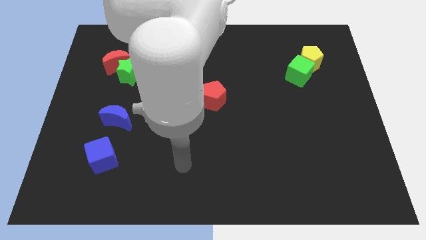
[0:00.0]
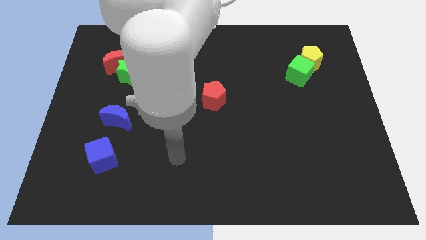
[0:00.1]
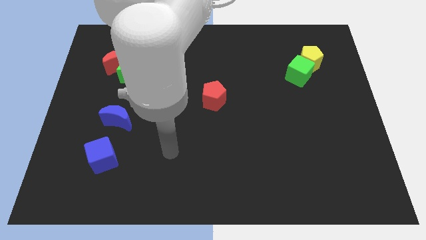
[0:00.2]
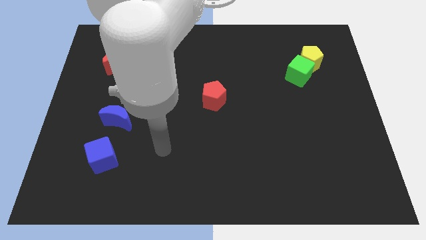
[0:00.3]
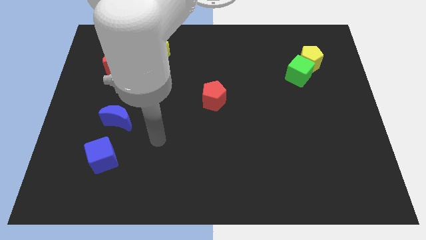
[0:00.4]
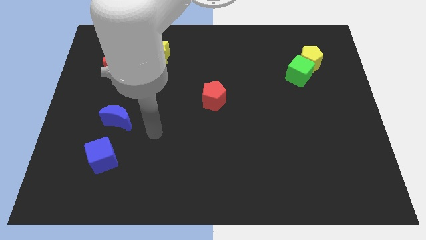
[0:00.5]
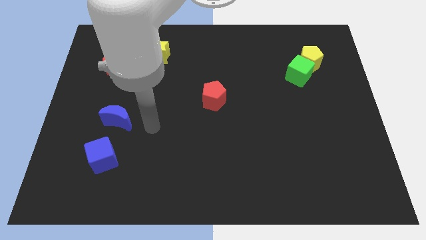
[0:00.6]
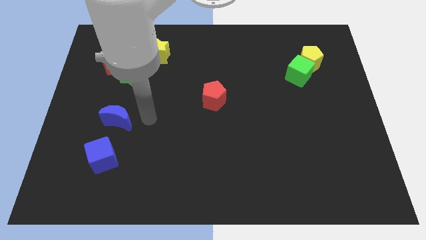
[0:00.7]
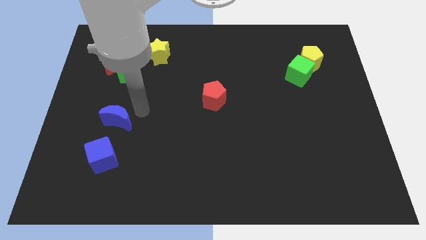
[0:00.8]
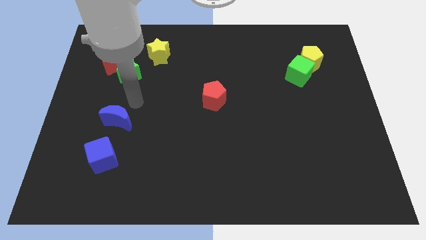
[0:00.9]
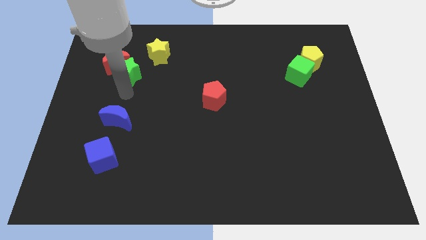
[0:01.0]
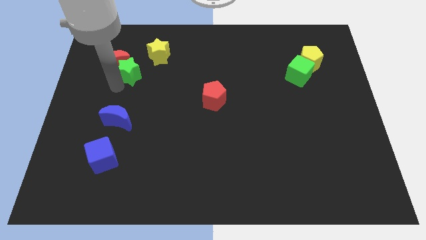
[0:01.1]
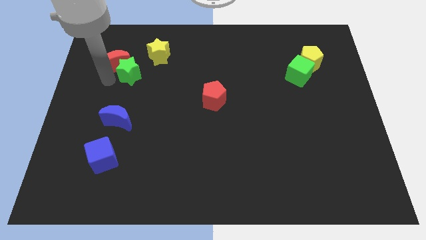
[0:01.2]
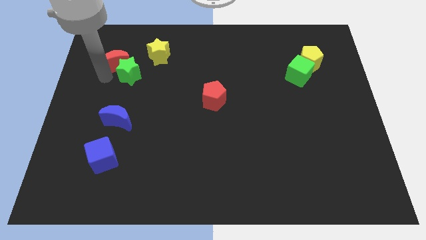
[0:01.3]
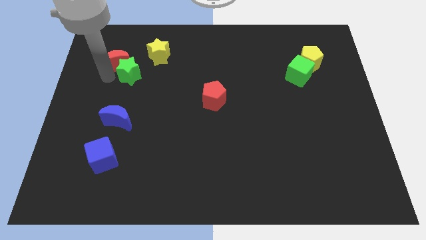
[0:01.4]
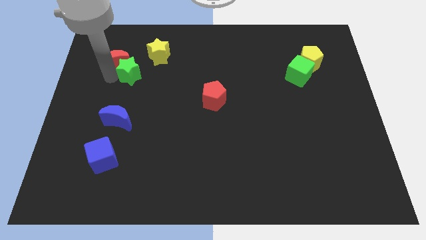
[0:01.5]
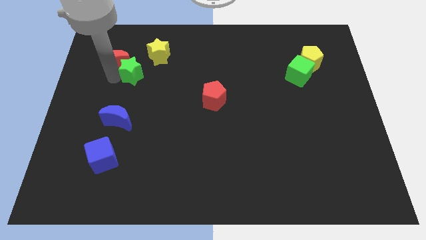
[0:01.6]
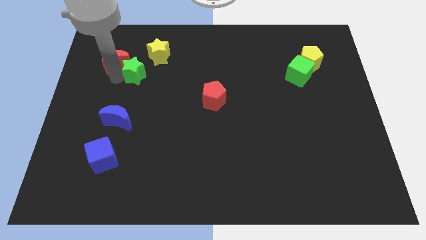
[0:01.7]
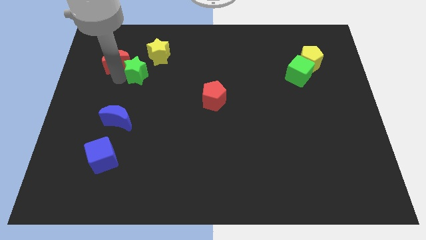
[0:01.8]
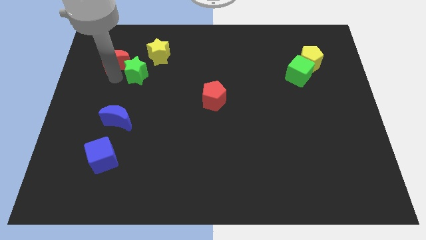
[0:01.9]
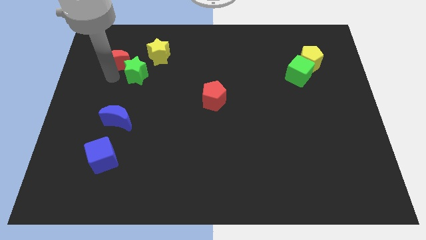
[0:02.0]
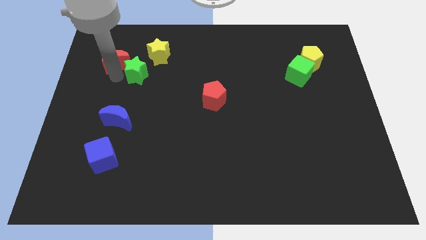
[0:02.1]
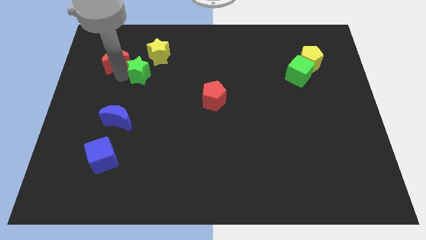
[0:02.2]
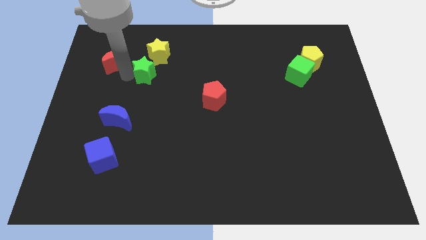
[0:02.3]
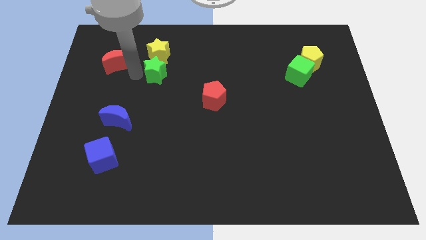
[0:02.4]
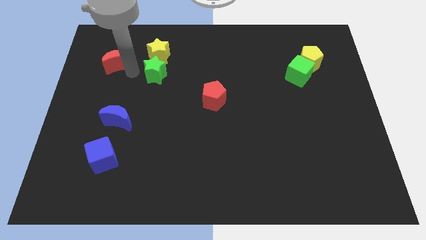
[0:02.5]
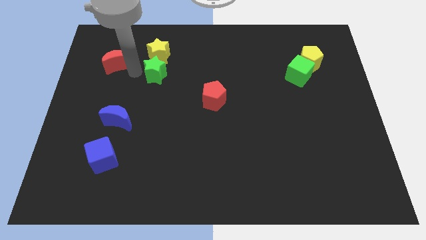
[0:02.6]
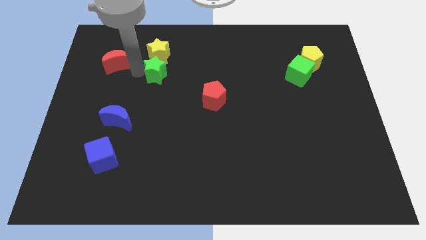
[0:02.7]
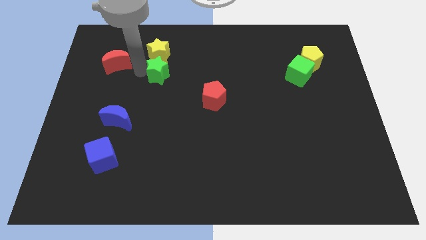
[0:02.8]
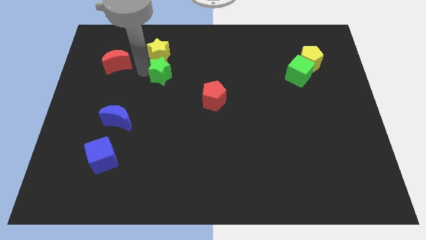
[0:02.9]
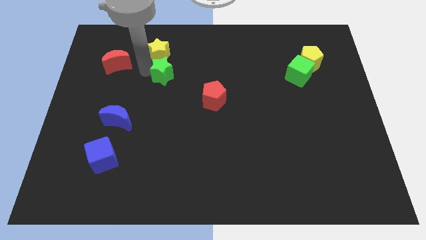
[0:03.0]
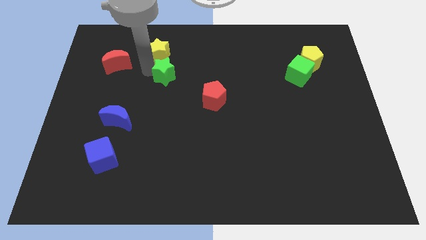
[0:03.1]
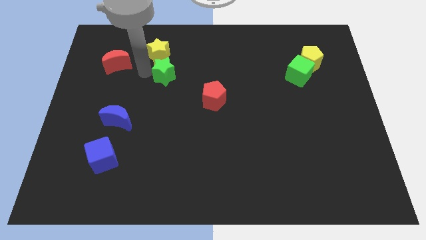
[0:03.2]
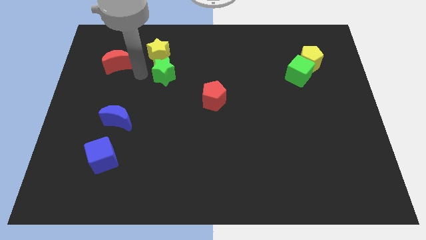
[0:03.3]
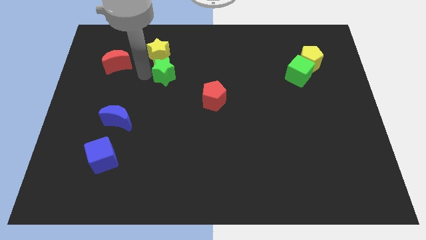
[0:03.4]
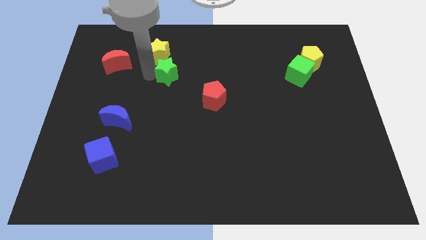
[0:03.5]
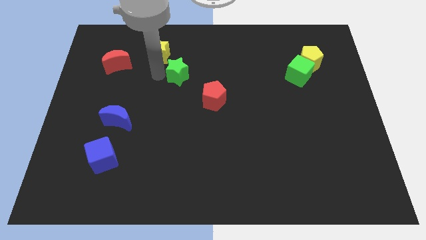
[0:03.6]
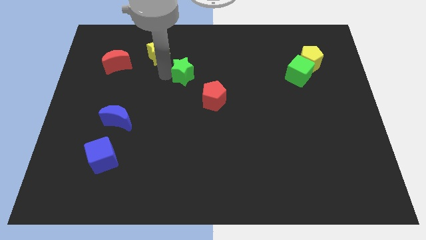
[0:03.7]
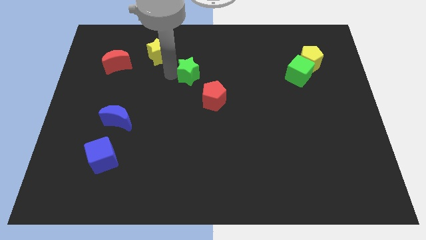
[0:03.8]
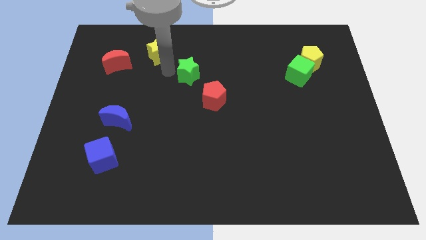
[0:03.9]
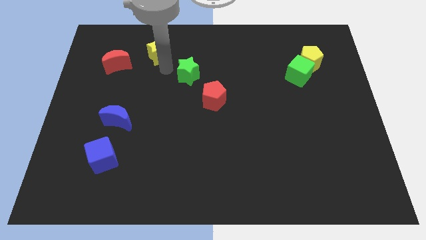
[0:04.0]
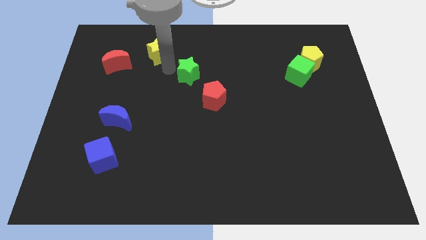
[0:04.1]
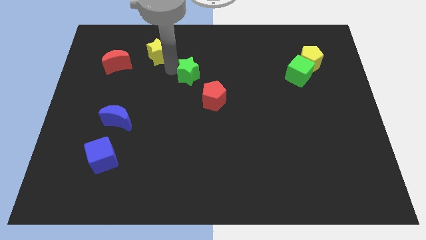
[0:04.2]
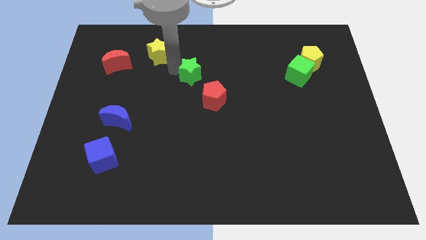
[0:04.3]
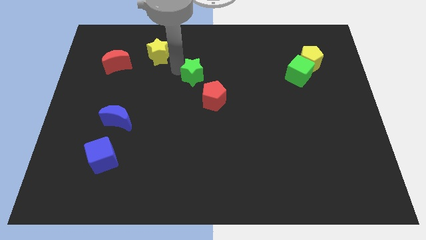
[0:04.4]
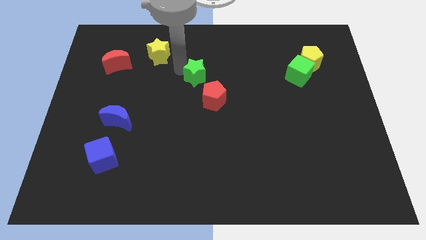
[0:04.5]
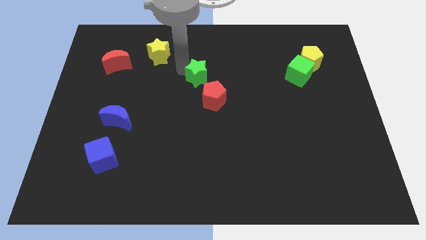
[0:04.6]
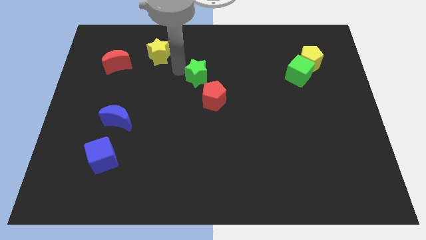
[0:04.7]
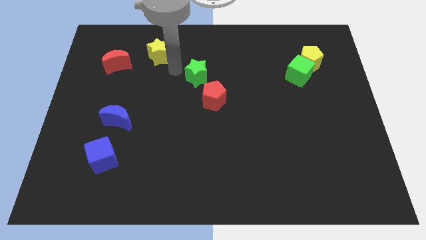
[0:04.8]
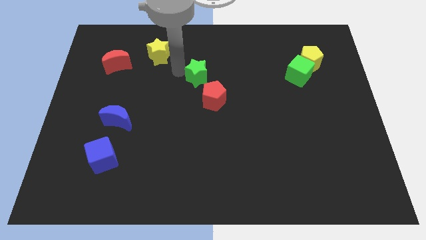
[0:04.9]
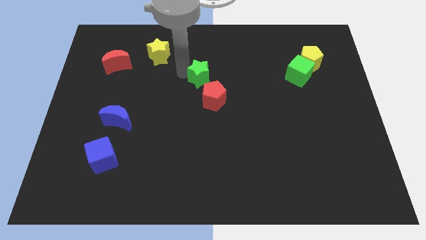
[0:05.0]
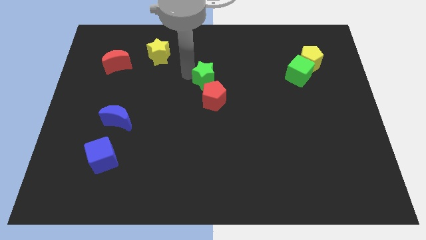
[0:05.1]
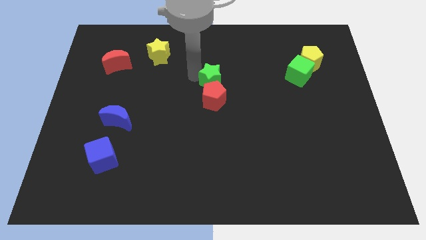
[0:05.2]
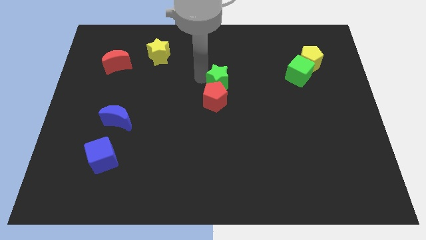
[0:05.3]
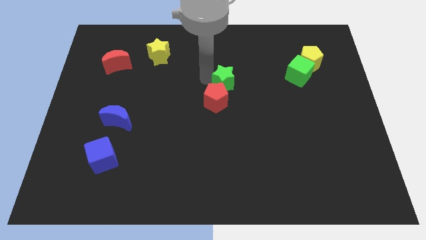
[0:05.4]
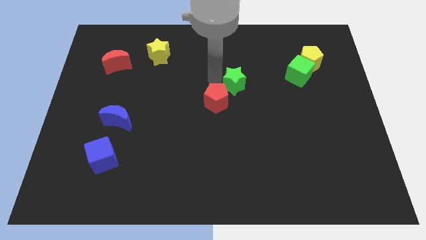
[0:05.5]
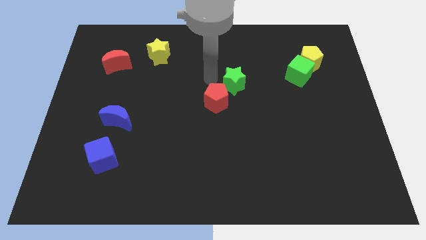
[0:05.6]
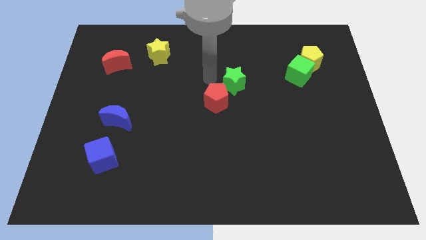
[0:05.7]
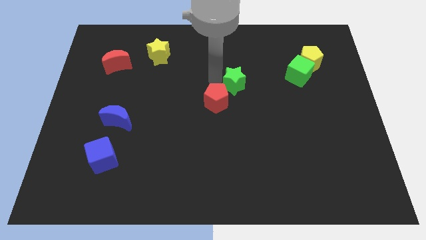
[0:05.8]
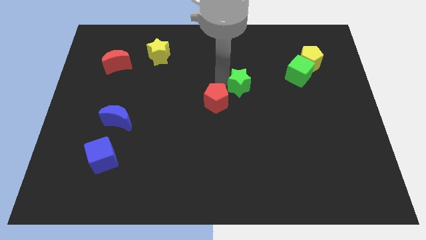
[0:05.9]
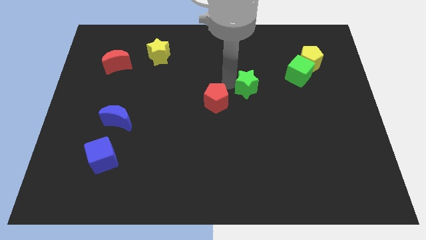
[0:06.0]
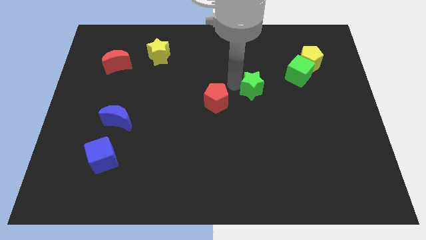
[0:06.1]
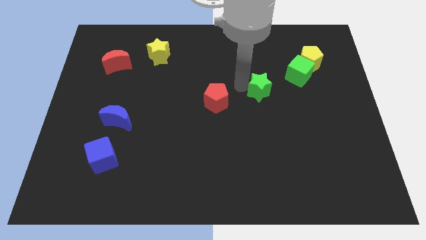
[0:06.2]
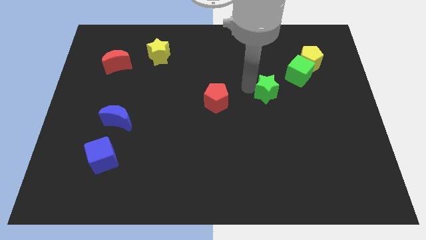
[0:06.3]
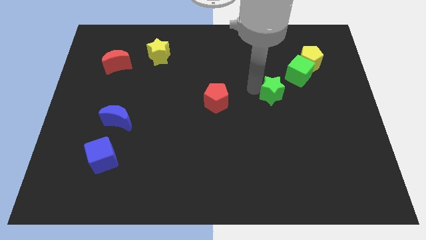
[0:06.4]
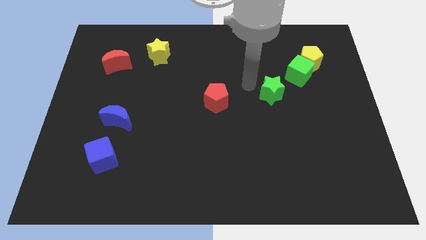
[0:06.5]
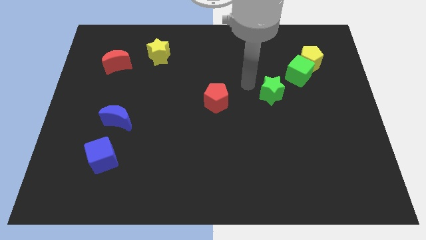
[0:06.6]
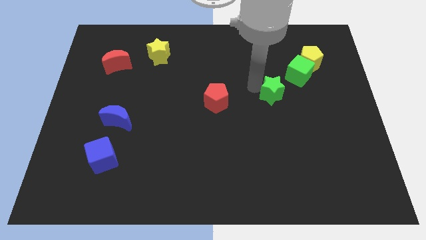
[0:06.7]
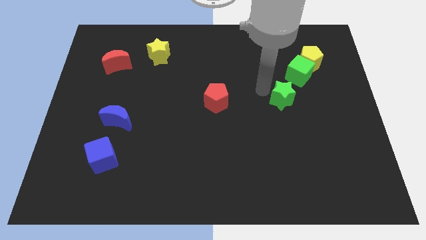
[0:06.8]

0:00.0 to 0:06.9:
slide the green star below the green cube

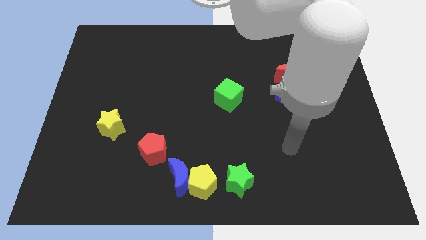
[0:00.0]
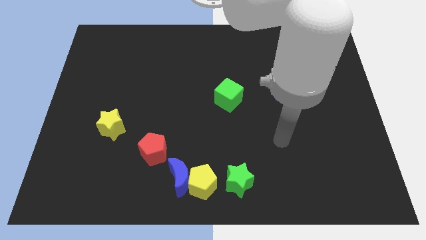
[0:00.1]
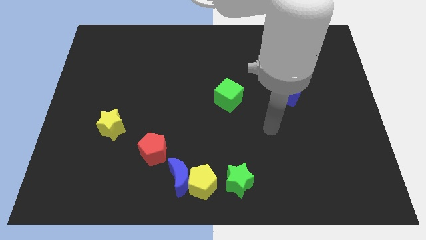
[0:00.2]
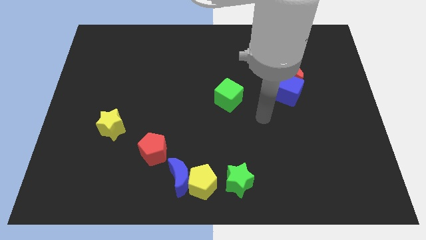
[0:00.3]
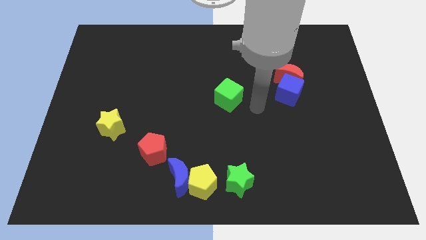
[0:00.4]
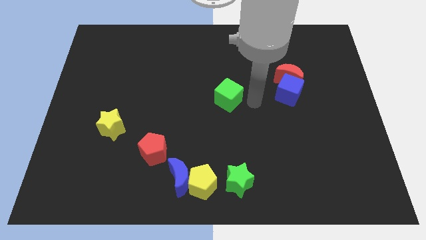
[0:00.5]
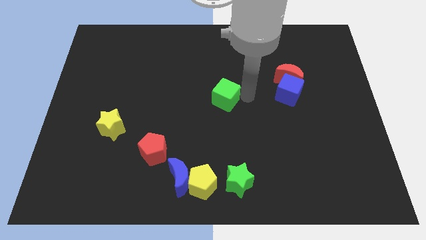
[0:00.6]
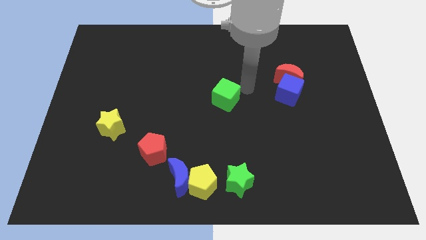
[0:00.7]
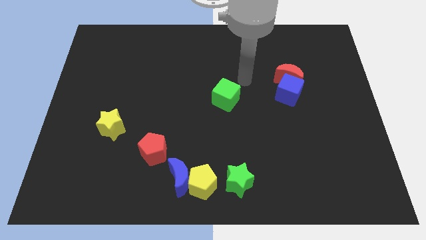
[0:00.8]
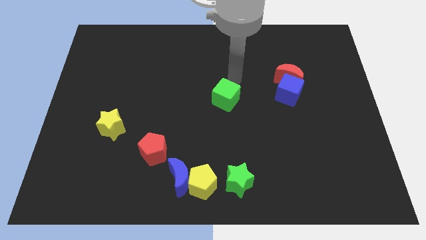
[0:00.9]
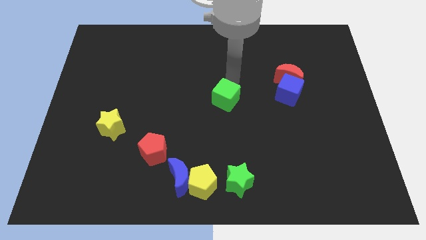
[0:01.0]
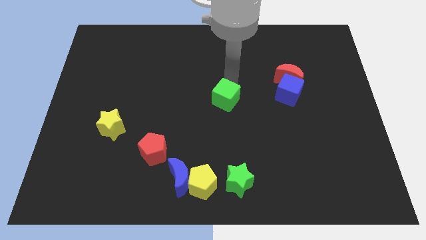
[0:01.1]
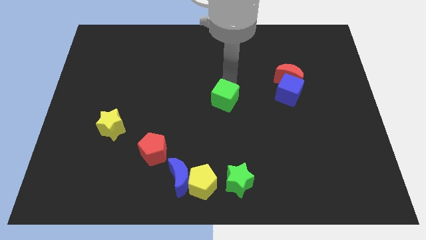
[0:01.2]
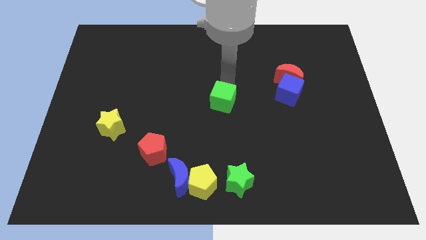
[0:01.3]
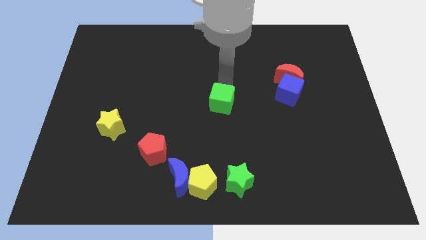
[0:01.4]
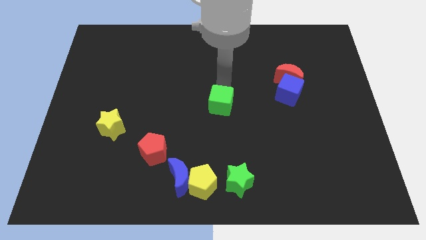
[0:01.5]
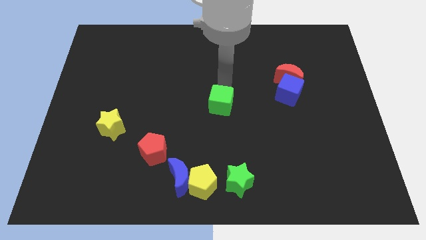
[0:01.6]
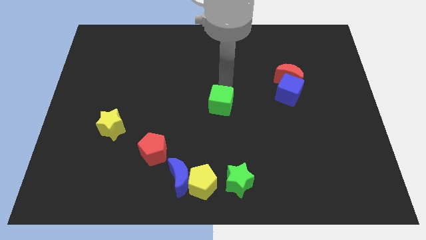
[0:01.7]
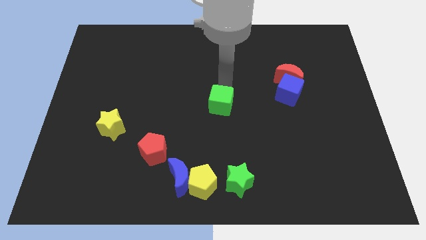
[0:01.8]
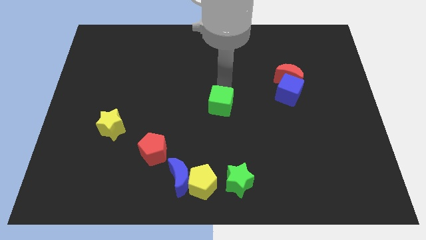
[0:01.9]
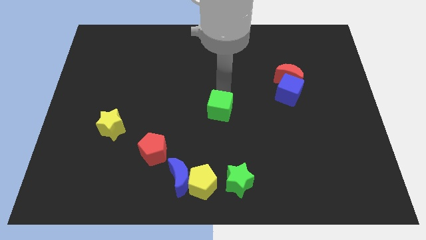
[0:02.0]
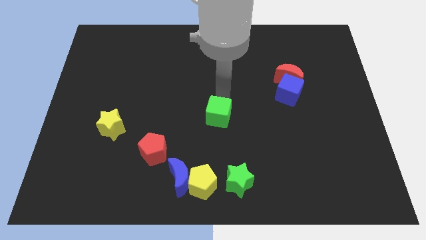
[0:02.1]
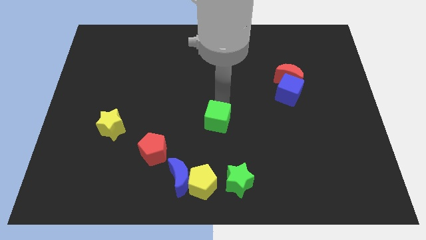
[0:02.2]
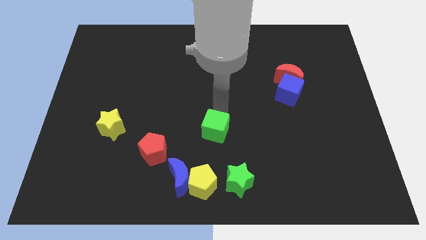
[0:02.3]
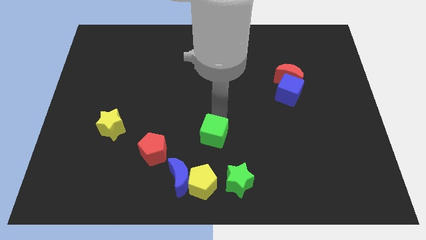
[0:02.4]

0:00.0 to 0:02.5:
push the green cube right of the red pentagon
